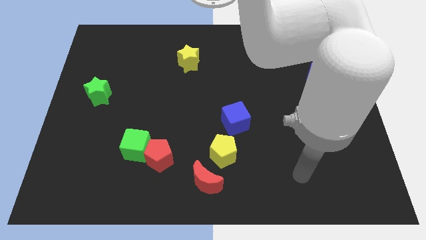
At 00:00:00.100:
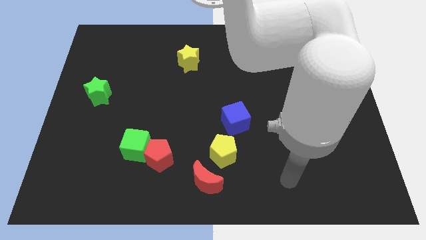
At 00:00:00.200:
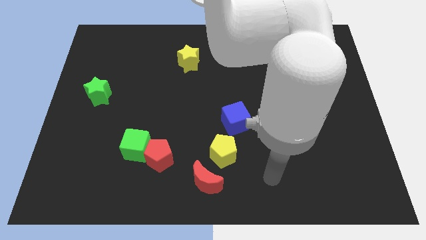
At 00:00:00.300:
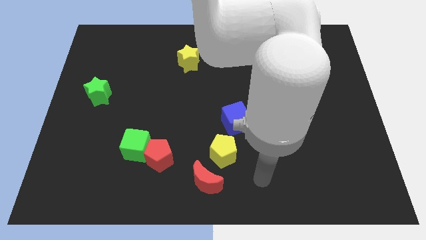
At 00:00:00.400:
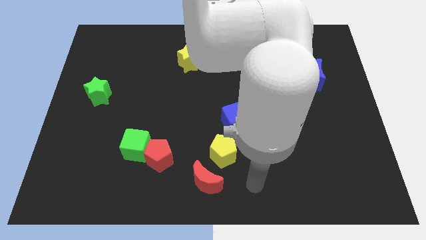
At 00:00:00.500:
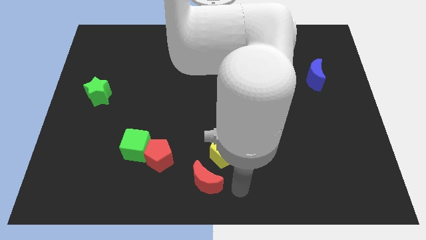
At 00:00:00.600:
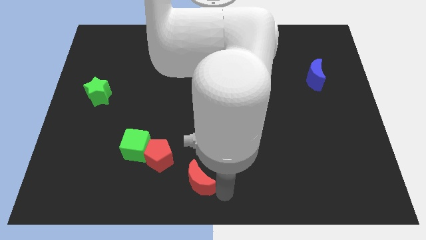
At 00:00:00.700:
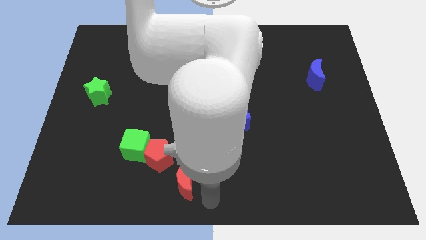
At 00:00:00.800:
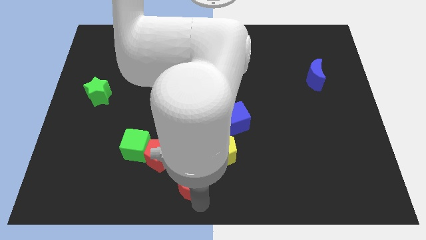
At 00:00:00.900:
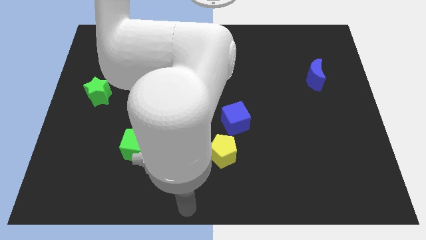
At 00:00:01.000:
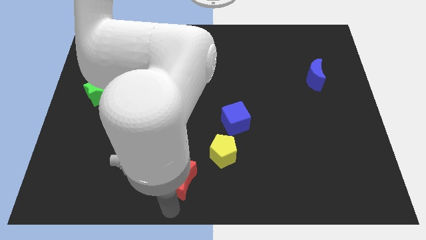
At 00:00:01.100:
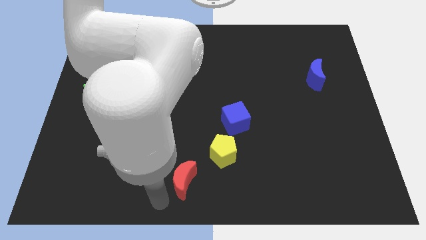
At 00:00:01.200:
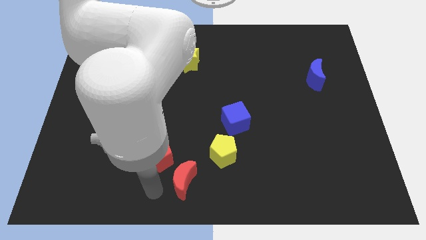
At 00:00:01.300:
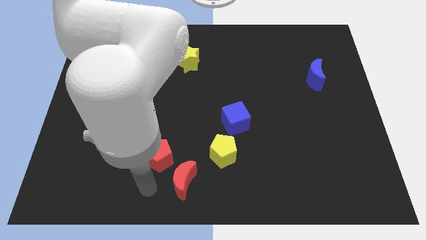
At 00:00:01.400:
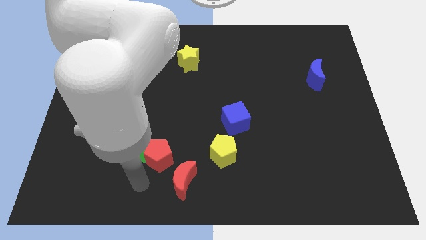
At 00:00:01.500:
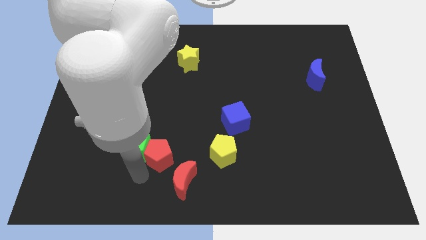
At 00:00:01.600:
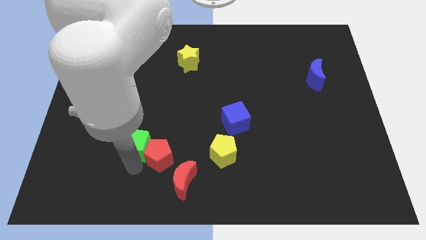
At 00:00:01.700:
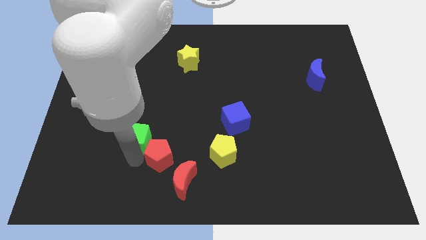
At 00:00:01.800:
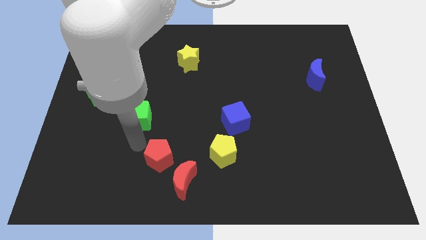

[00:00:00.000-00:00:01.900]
pull the red pentagon apart from the green cube

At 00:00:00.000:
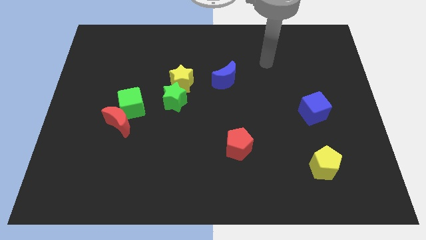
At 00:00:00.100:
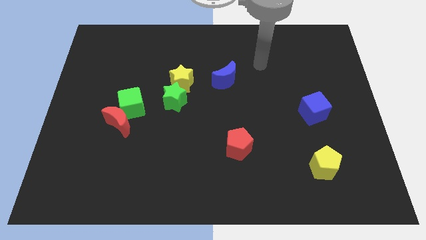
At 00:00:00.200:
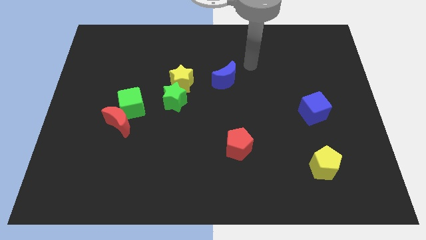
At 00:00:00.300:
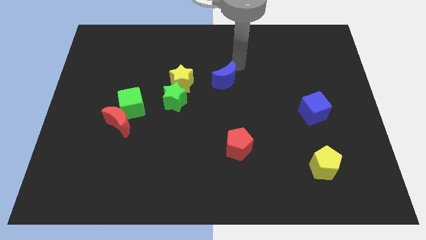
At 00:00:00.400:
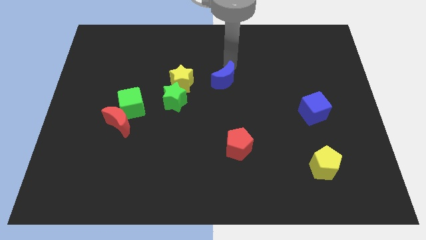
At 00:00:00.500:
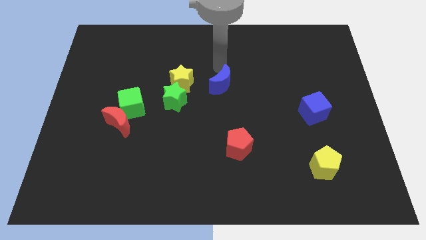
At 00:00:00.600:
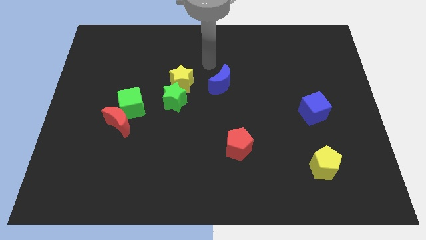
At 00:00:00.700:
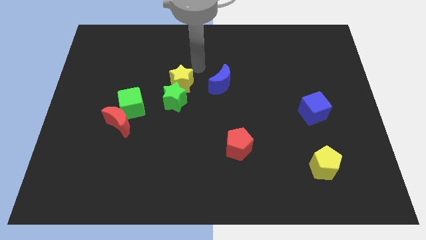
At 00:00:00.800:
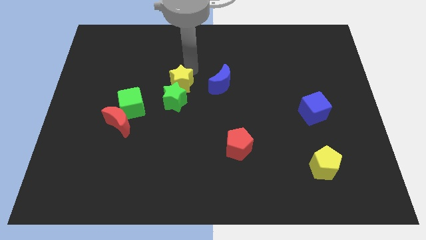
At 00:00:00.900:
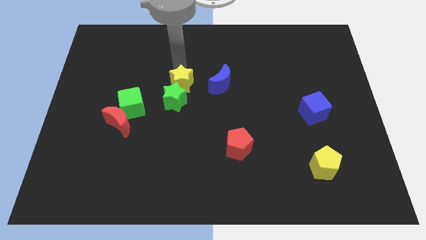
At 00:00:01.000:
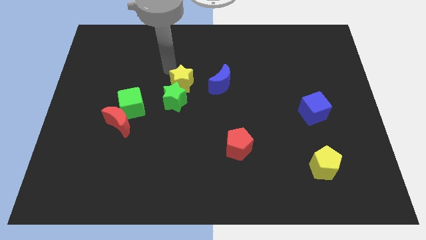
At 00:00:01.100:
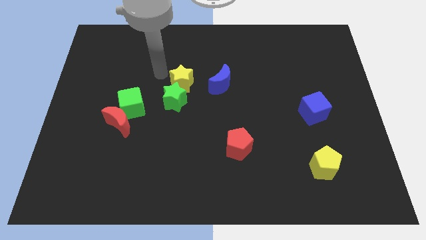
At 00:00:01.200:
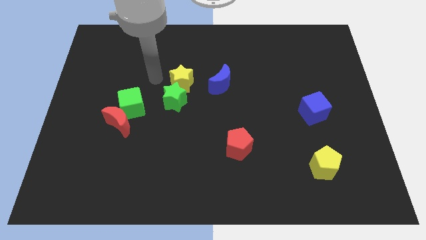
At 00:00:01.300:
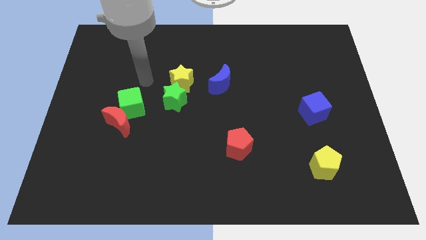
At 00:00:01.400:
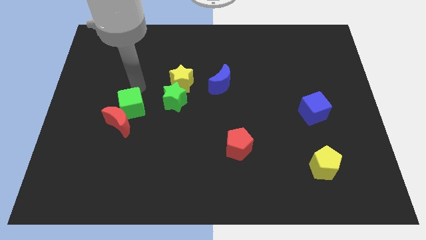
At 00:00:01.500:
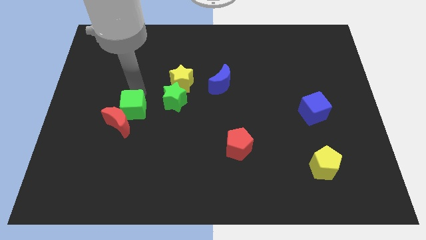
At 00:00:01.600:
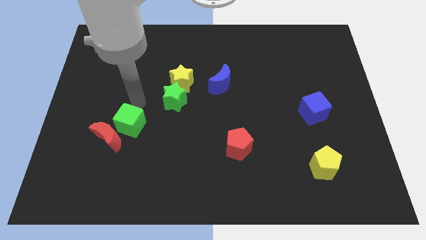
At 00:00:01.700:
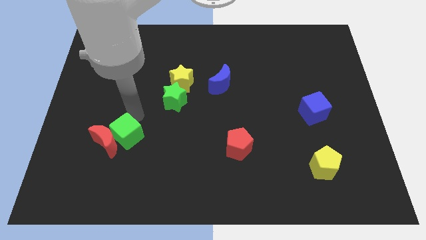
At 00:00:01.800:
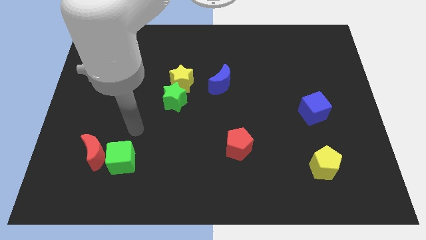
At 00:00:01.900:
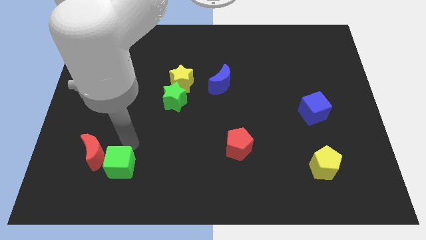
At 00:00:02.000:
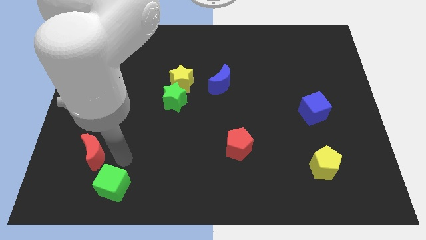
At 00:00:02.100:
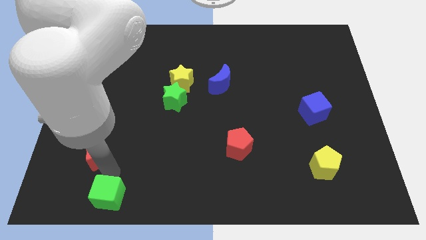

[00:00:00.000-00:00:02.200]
move the red moon away from the green cube

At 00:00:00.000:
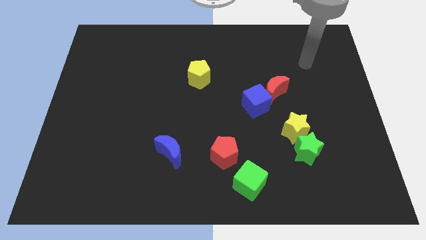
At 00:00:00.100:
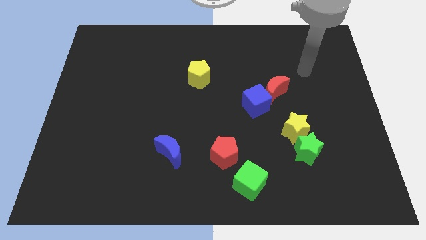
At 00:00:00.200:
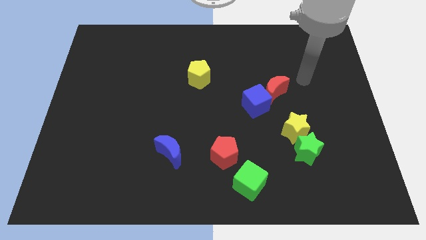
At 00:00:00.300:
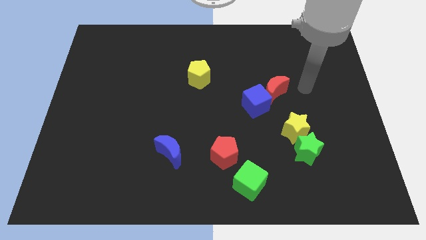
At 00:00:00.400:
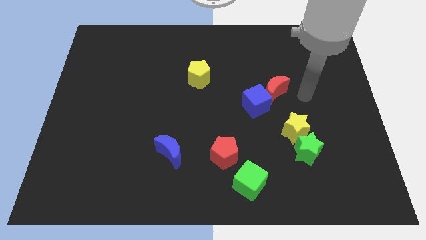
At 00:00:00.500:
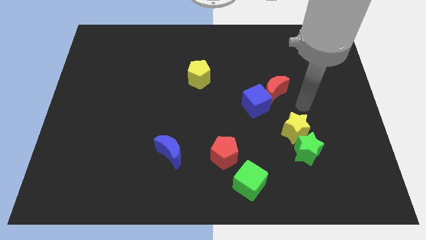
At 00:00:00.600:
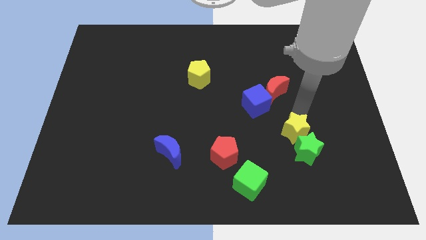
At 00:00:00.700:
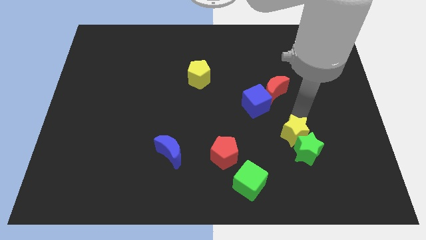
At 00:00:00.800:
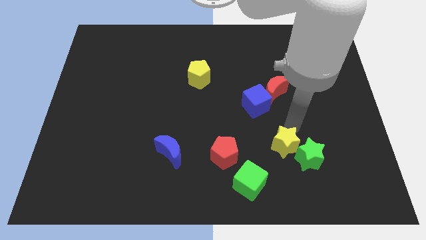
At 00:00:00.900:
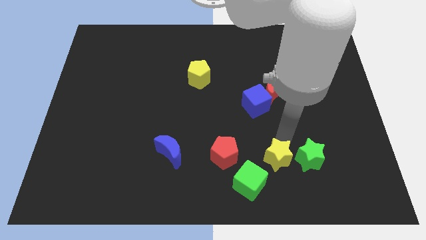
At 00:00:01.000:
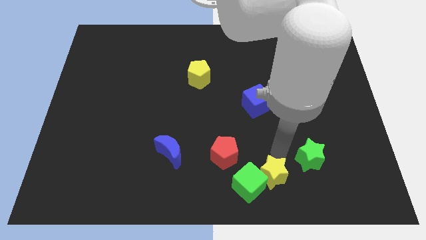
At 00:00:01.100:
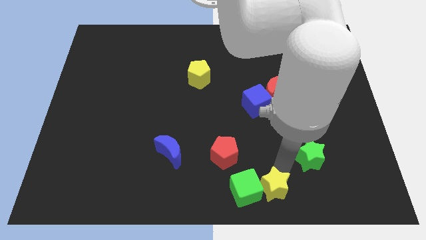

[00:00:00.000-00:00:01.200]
separate the green star from the yellow star

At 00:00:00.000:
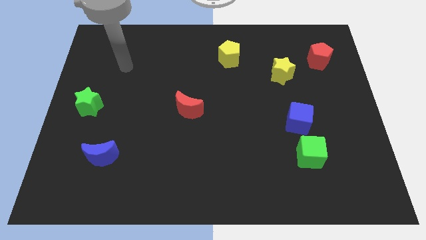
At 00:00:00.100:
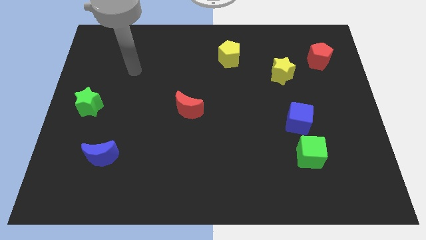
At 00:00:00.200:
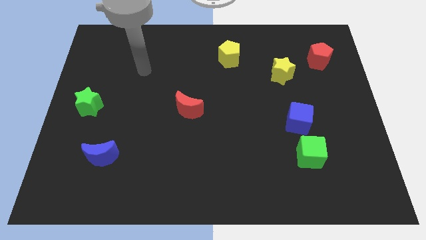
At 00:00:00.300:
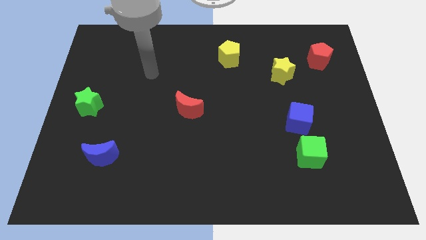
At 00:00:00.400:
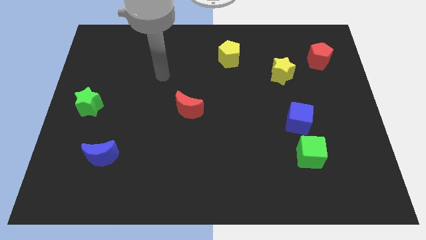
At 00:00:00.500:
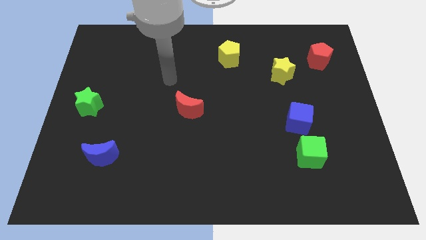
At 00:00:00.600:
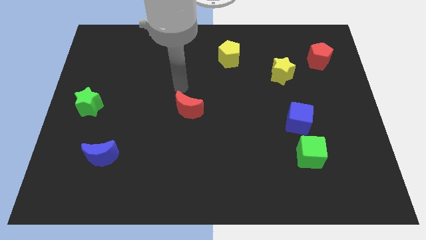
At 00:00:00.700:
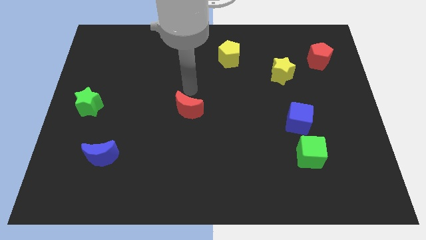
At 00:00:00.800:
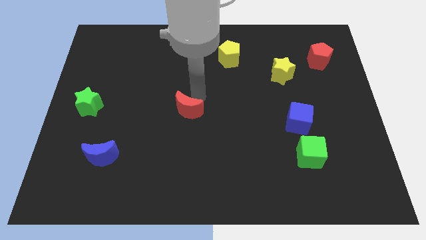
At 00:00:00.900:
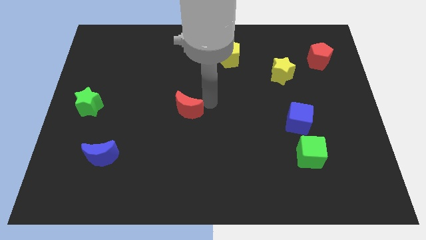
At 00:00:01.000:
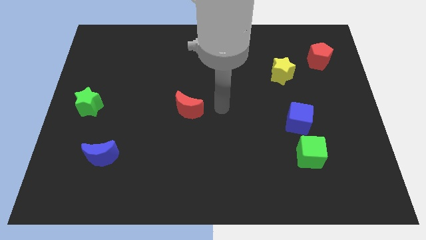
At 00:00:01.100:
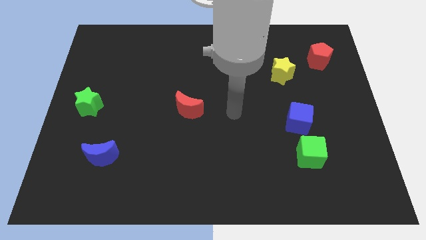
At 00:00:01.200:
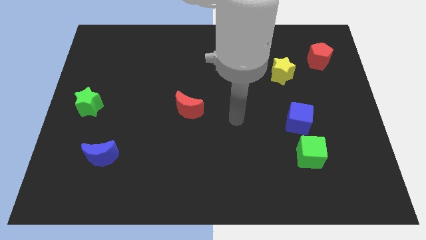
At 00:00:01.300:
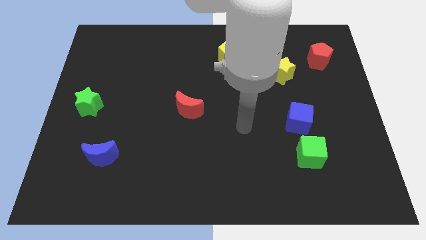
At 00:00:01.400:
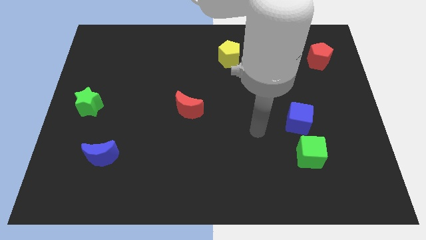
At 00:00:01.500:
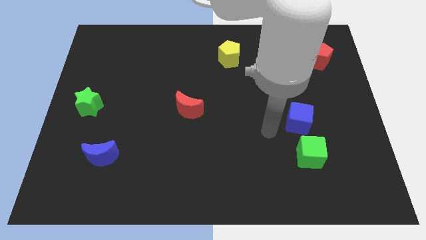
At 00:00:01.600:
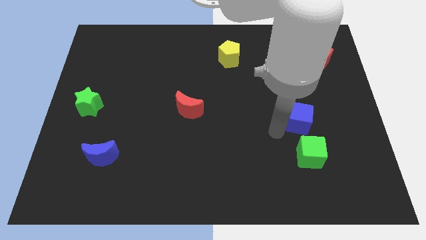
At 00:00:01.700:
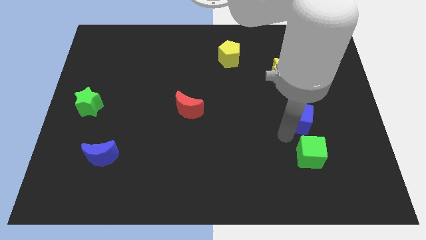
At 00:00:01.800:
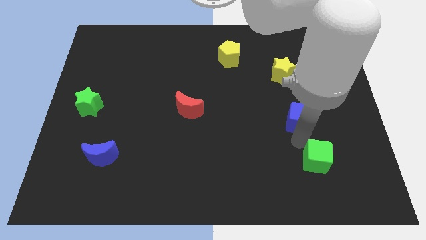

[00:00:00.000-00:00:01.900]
move the blue cube away from the green cube

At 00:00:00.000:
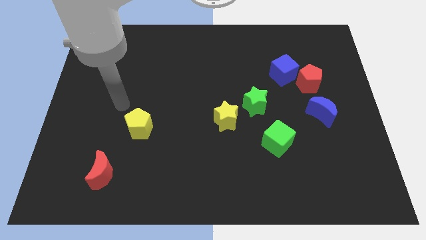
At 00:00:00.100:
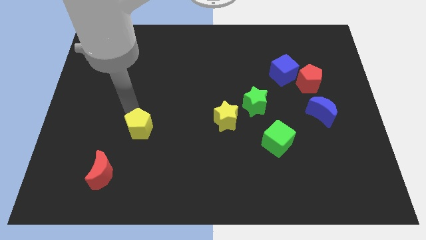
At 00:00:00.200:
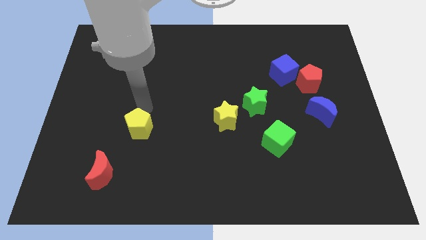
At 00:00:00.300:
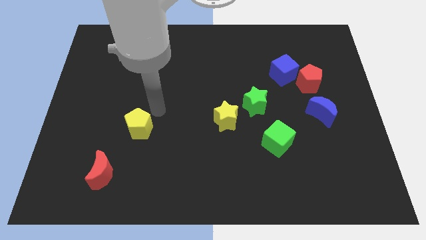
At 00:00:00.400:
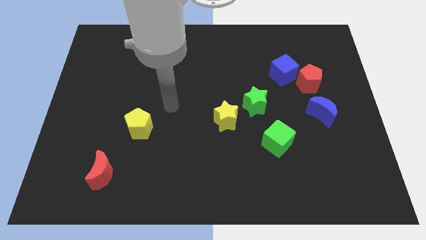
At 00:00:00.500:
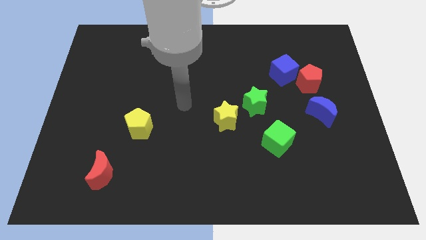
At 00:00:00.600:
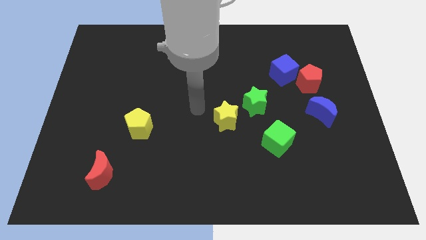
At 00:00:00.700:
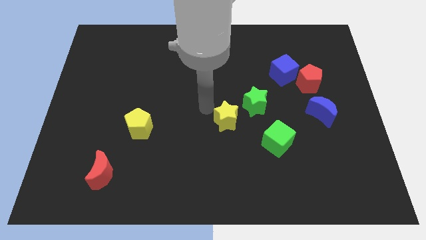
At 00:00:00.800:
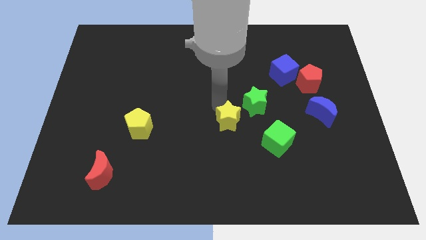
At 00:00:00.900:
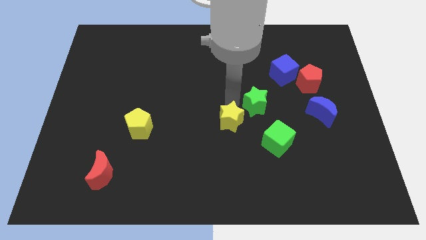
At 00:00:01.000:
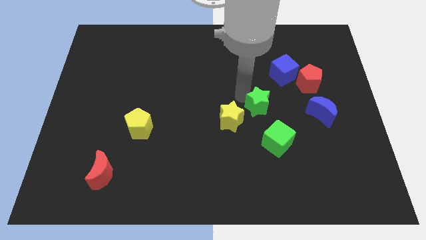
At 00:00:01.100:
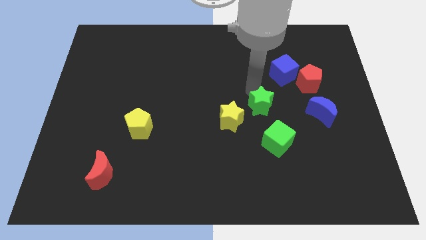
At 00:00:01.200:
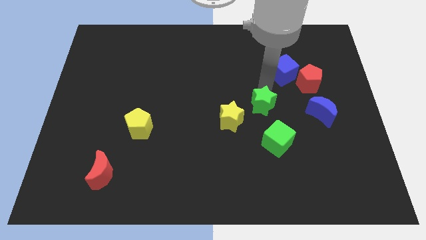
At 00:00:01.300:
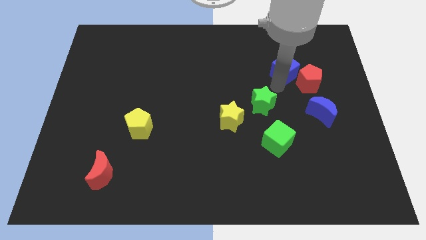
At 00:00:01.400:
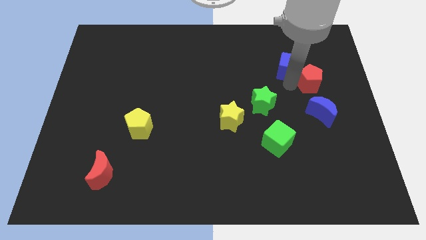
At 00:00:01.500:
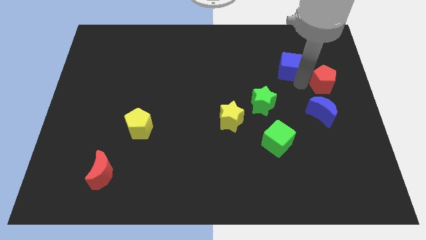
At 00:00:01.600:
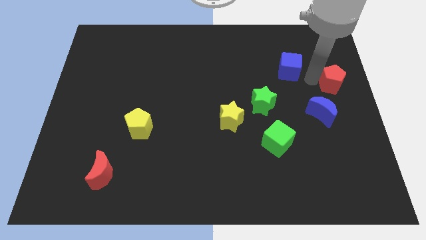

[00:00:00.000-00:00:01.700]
pull the blue cube apart from the red pentagon

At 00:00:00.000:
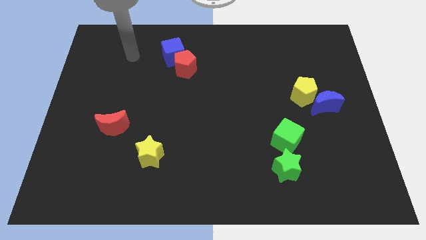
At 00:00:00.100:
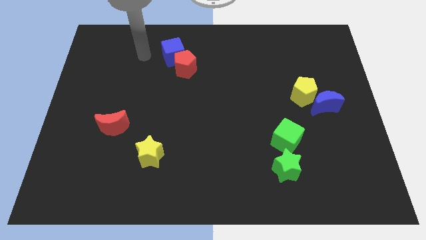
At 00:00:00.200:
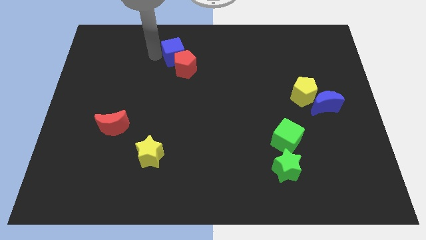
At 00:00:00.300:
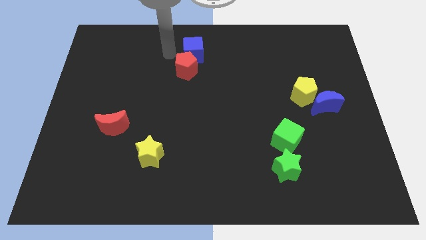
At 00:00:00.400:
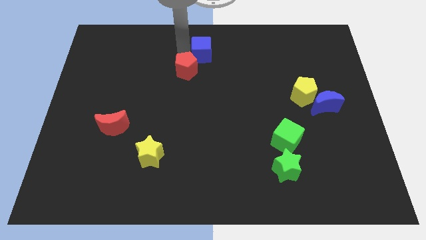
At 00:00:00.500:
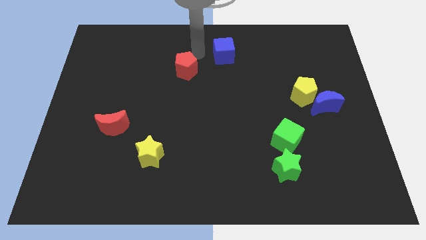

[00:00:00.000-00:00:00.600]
separate the red pentagon from the blue cube
